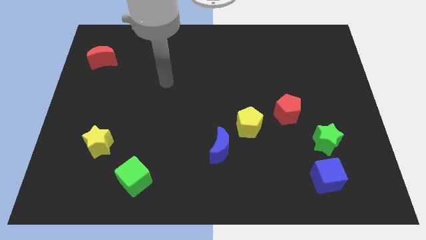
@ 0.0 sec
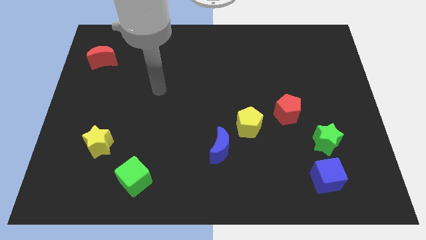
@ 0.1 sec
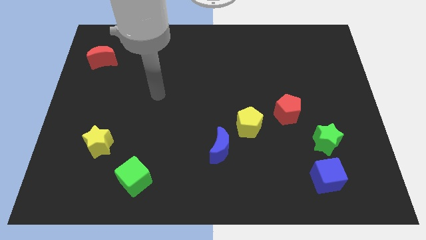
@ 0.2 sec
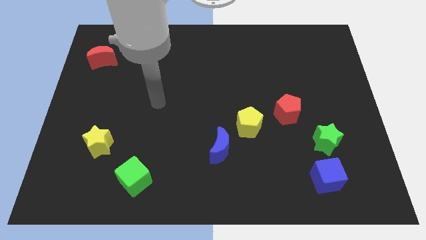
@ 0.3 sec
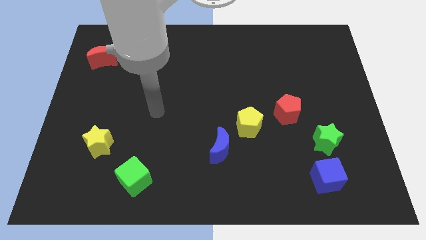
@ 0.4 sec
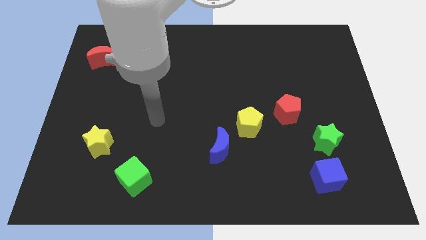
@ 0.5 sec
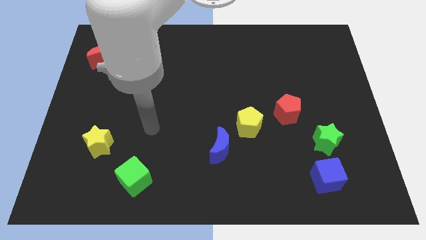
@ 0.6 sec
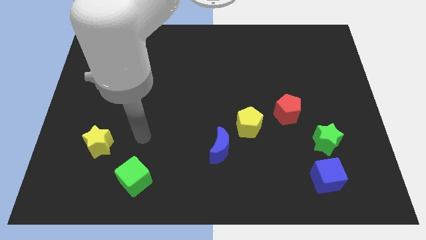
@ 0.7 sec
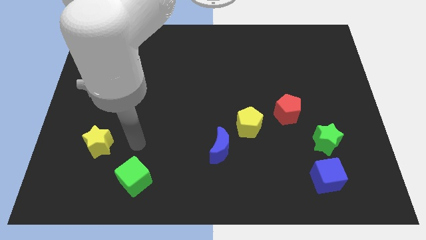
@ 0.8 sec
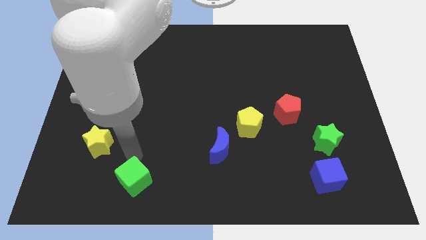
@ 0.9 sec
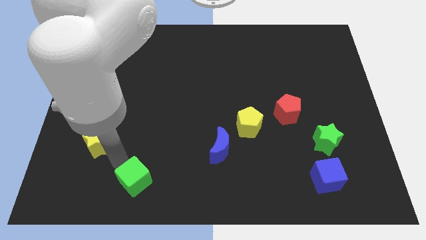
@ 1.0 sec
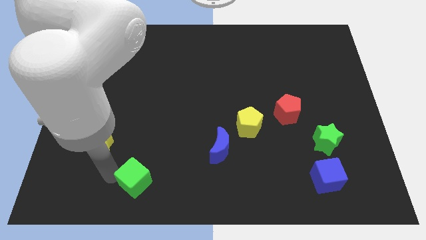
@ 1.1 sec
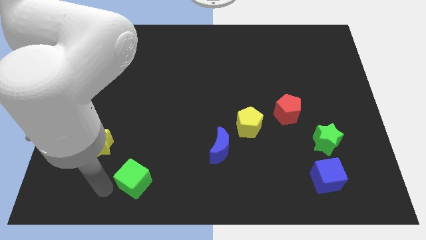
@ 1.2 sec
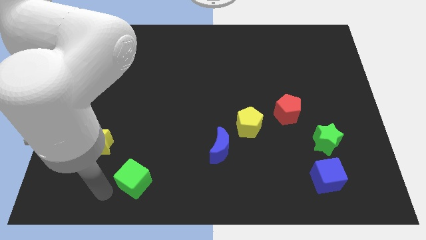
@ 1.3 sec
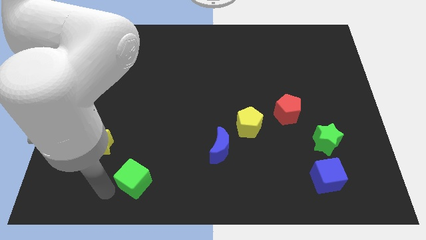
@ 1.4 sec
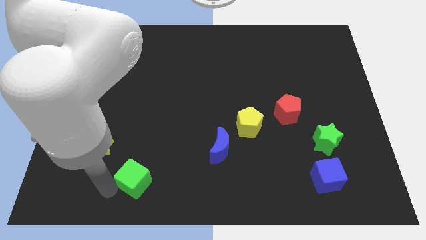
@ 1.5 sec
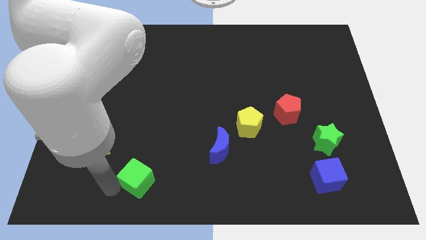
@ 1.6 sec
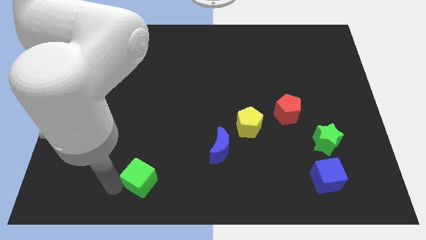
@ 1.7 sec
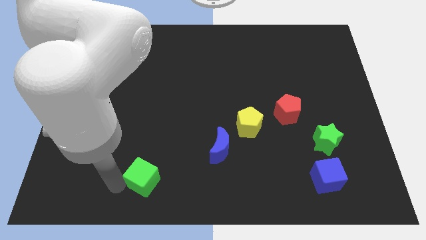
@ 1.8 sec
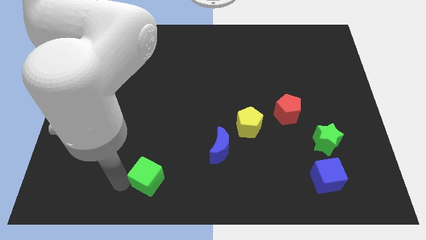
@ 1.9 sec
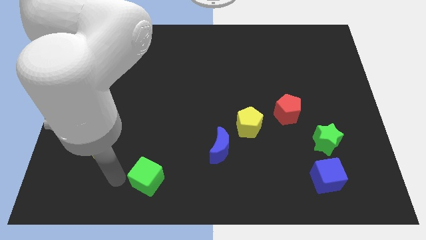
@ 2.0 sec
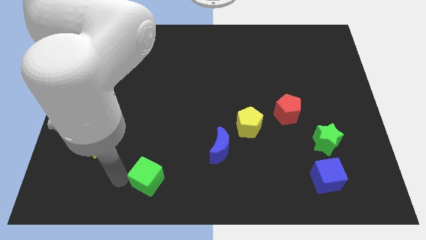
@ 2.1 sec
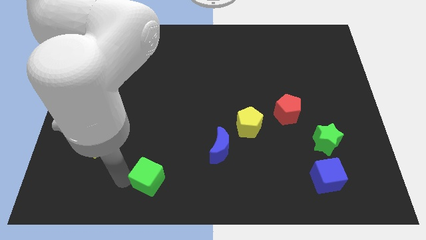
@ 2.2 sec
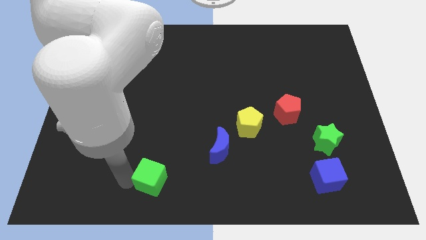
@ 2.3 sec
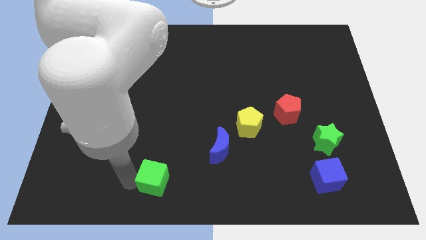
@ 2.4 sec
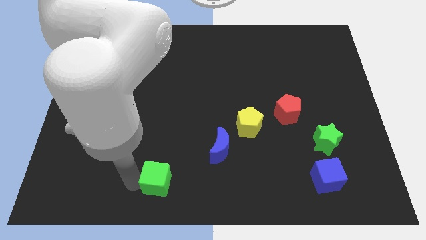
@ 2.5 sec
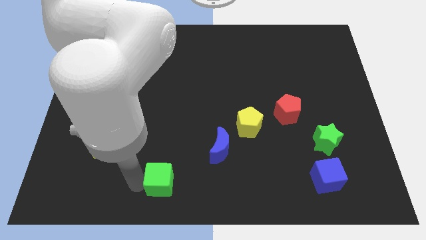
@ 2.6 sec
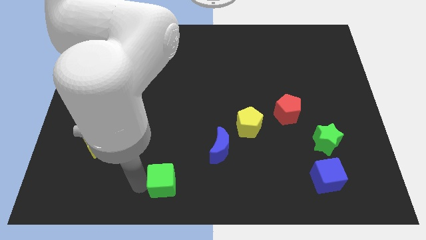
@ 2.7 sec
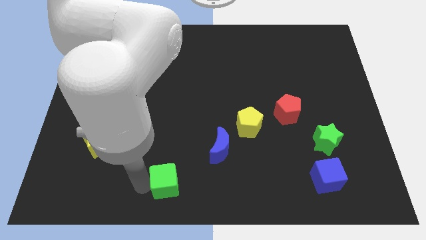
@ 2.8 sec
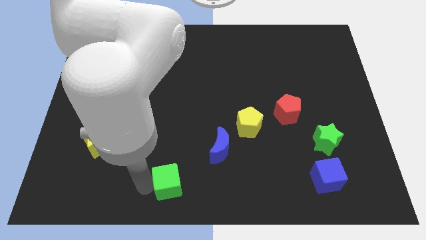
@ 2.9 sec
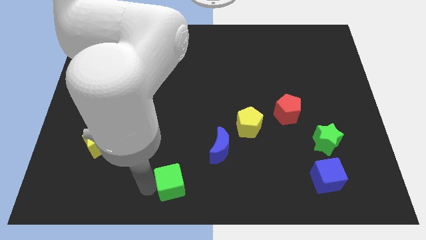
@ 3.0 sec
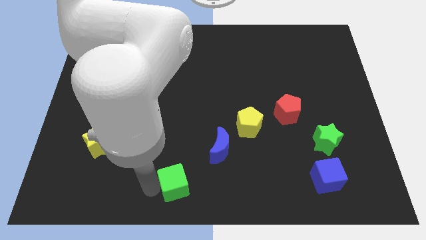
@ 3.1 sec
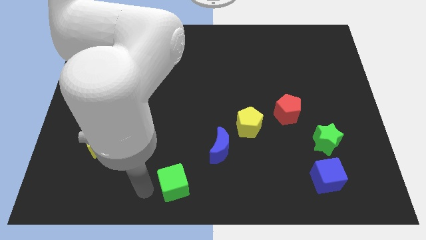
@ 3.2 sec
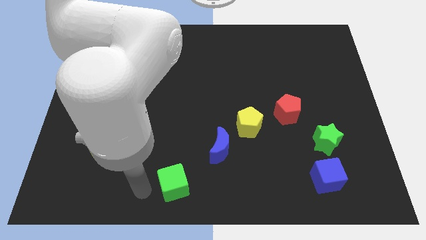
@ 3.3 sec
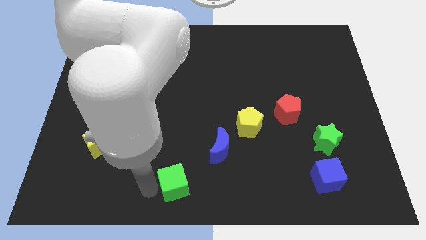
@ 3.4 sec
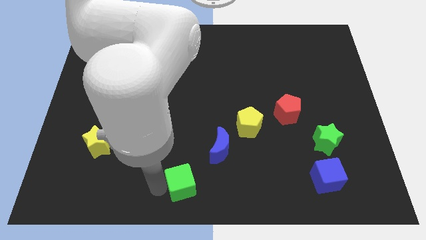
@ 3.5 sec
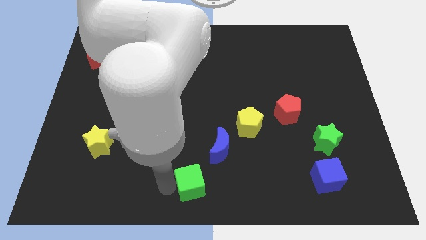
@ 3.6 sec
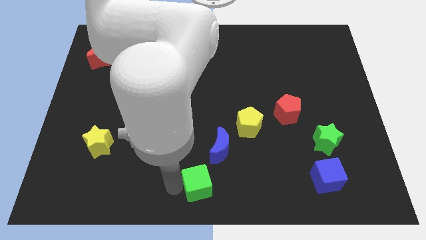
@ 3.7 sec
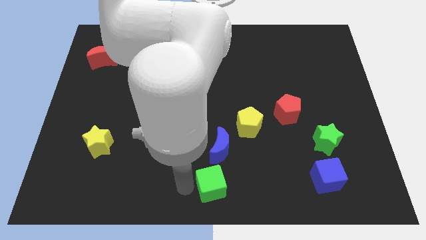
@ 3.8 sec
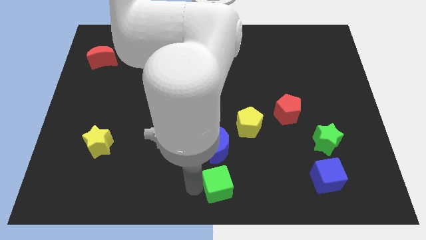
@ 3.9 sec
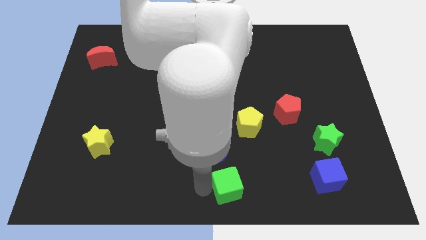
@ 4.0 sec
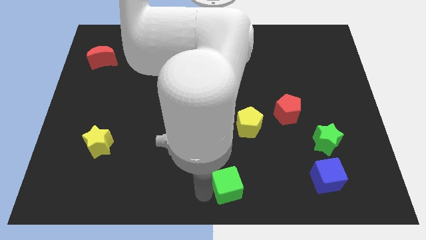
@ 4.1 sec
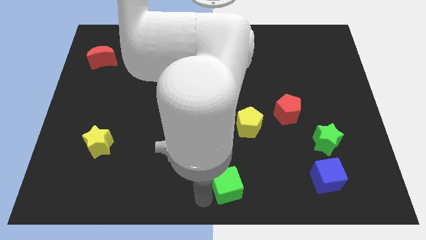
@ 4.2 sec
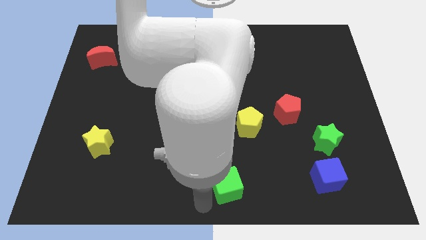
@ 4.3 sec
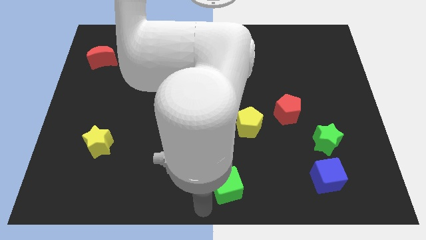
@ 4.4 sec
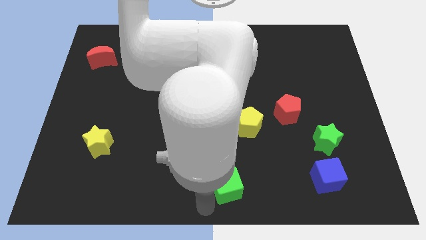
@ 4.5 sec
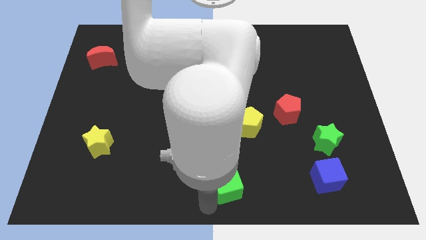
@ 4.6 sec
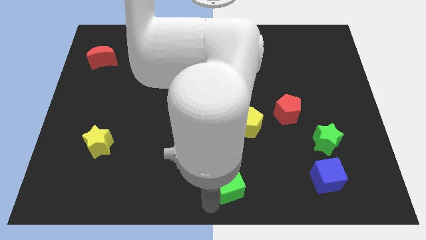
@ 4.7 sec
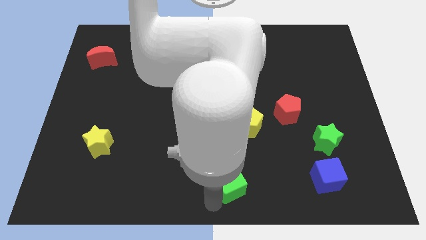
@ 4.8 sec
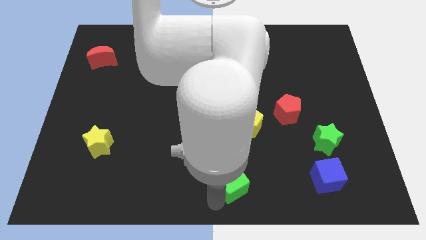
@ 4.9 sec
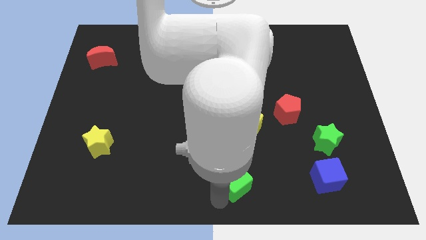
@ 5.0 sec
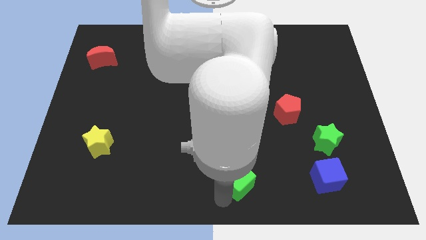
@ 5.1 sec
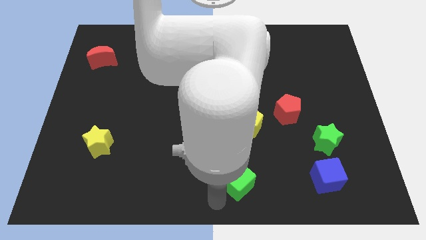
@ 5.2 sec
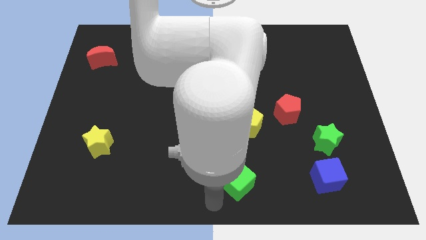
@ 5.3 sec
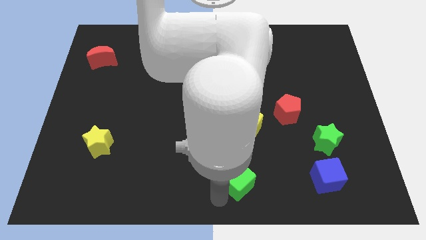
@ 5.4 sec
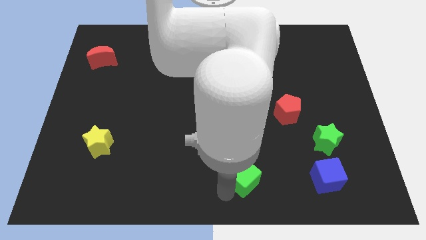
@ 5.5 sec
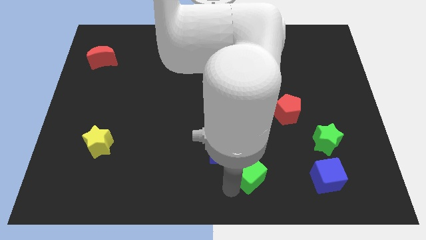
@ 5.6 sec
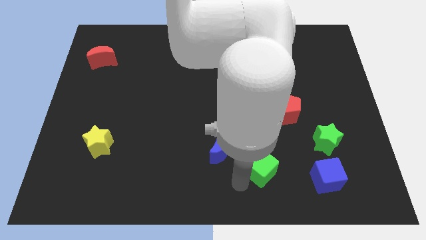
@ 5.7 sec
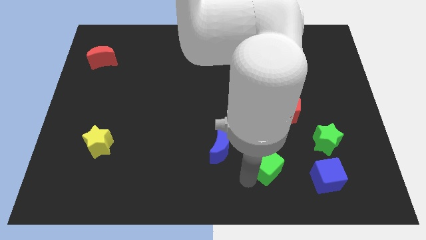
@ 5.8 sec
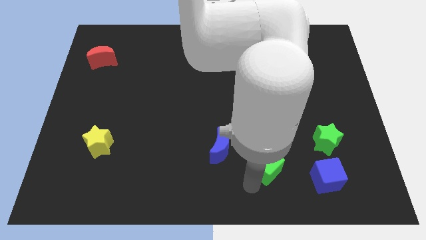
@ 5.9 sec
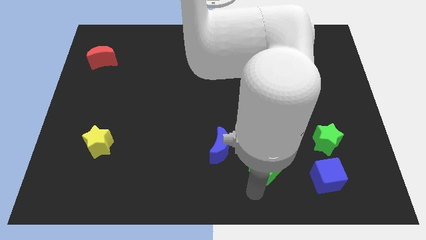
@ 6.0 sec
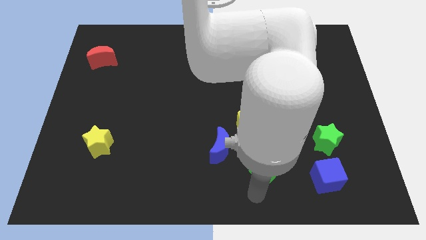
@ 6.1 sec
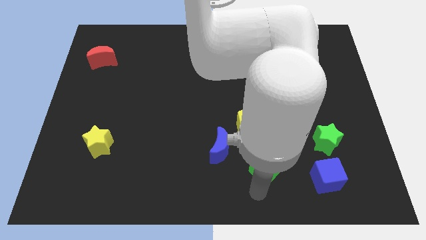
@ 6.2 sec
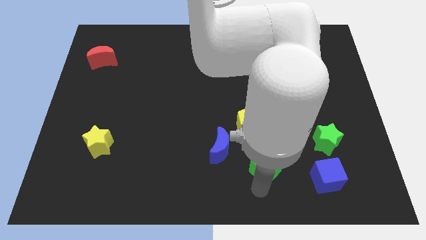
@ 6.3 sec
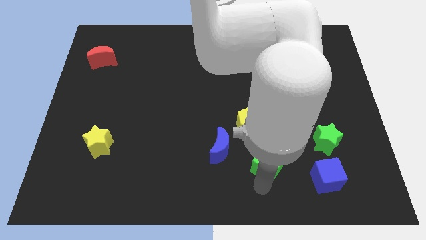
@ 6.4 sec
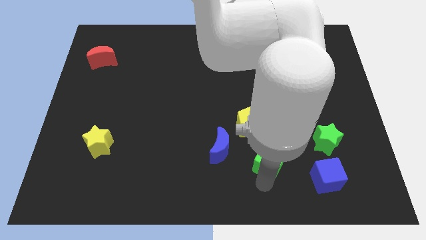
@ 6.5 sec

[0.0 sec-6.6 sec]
move the green cube diagonally down and to the right of the yellow pentagon

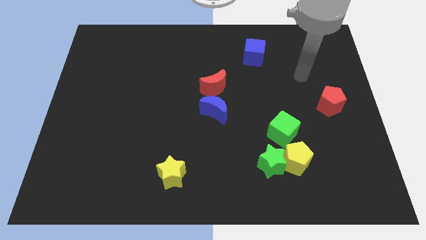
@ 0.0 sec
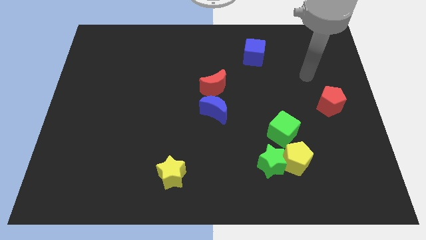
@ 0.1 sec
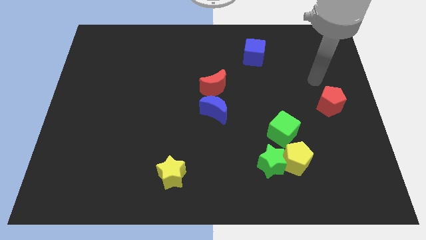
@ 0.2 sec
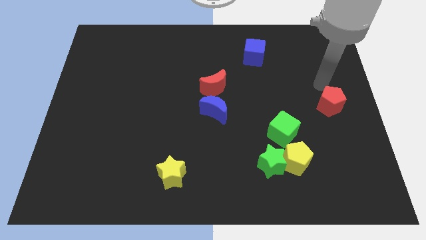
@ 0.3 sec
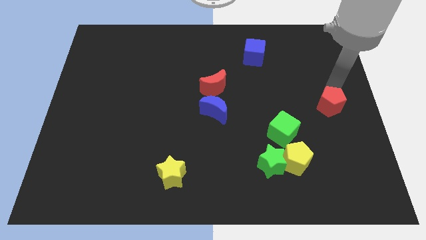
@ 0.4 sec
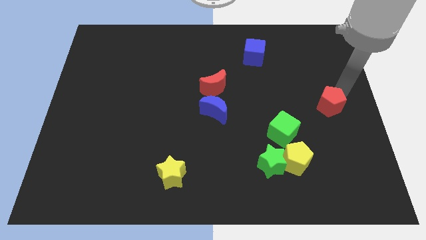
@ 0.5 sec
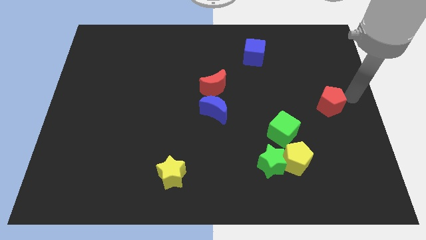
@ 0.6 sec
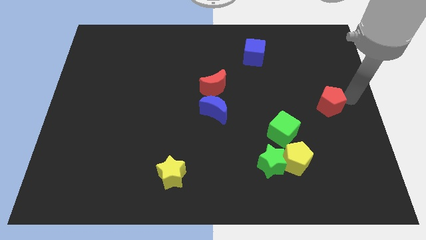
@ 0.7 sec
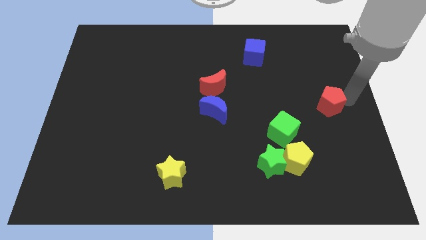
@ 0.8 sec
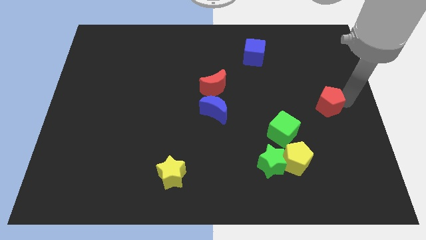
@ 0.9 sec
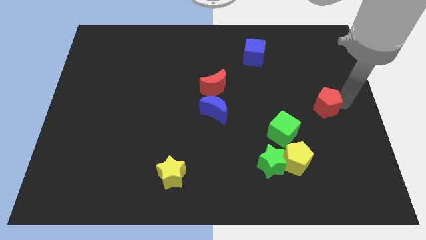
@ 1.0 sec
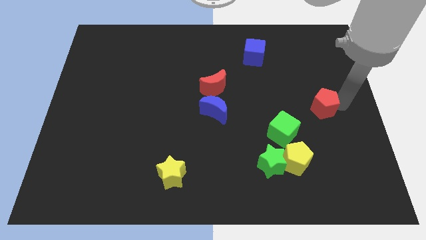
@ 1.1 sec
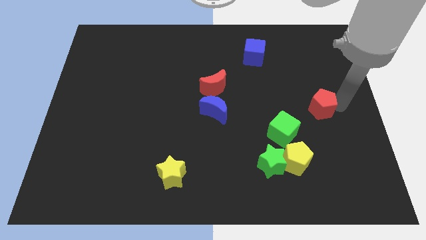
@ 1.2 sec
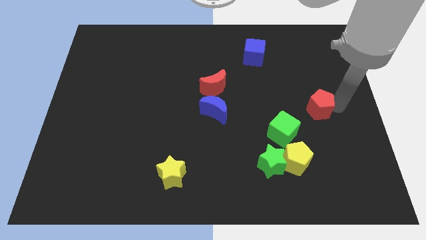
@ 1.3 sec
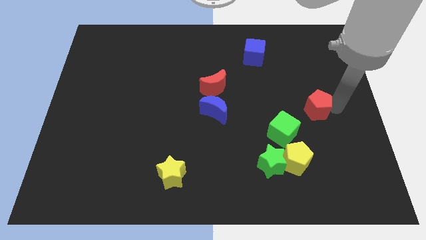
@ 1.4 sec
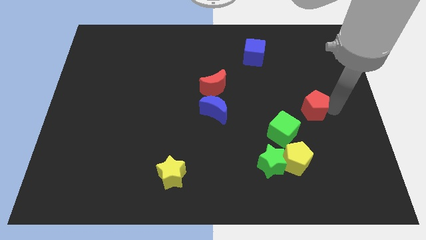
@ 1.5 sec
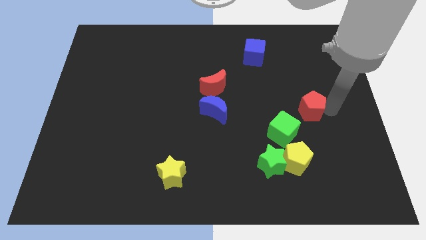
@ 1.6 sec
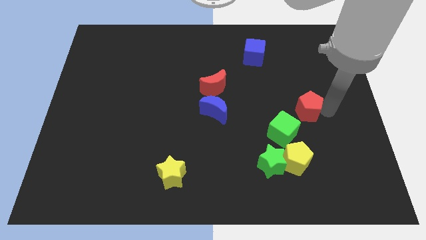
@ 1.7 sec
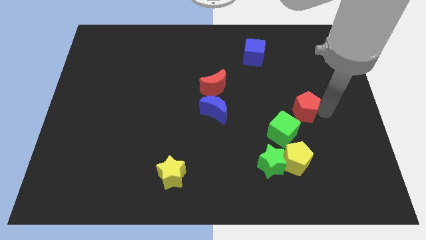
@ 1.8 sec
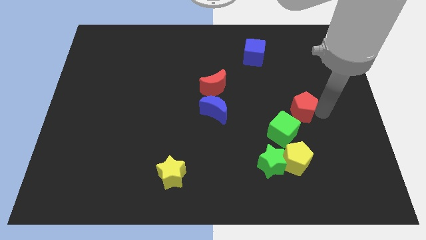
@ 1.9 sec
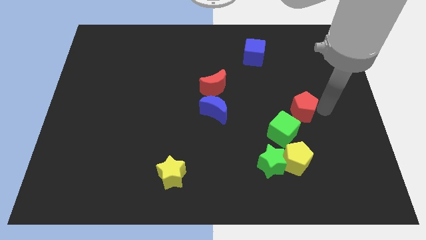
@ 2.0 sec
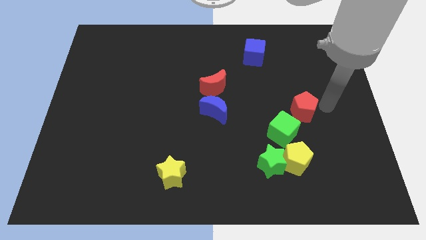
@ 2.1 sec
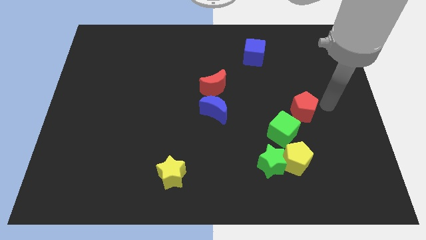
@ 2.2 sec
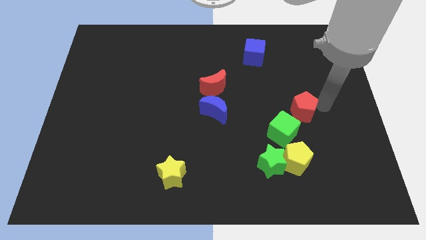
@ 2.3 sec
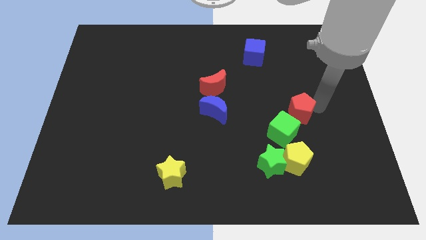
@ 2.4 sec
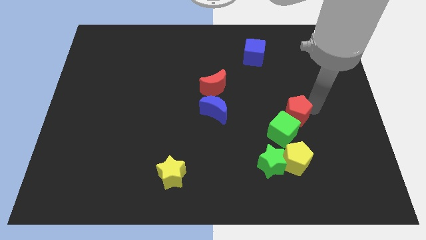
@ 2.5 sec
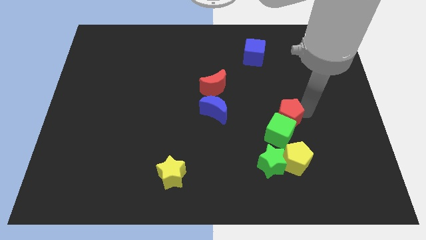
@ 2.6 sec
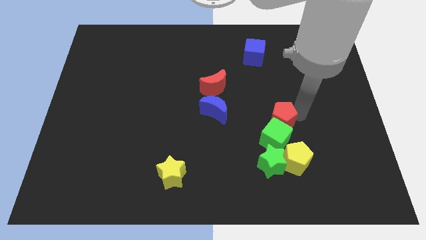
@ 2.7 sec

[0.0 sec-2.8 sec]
put the red pentagon to the right side of the blue moon
